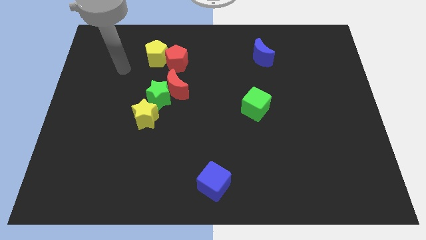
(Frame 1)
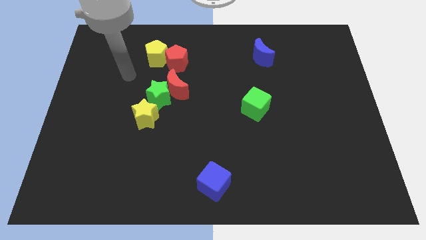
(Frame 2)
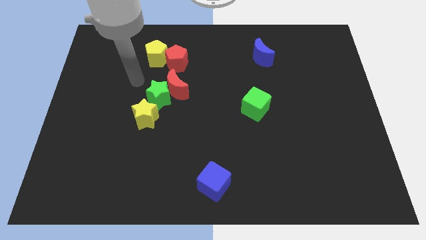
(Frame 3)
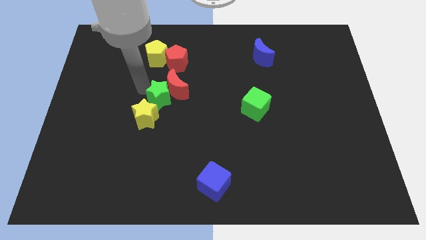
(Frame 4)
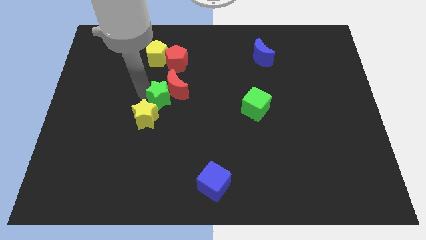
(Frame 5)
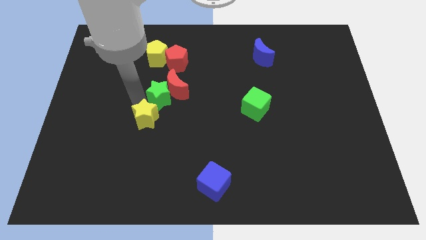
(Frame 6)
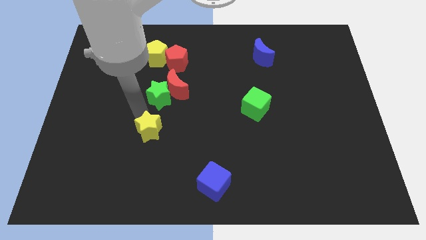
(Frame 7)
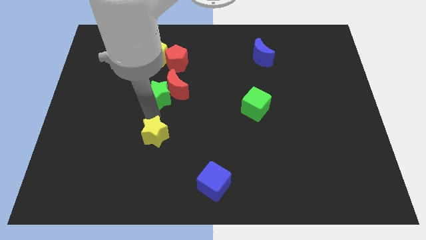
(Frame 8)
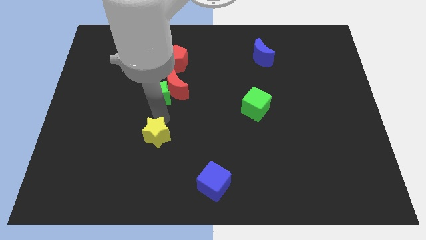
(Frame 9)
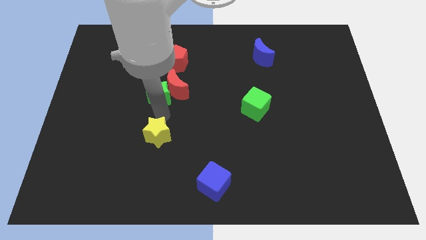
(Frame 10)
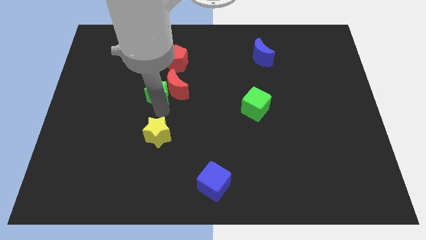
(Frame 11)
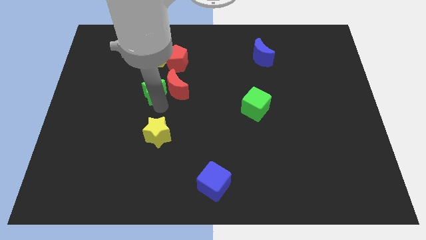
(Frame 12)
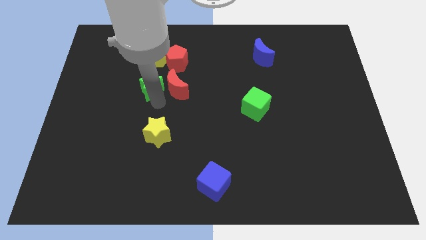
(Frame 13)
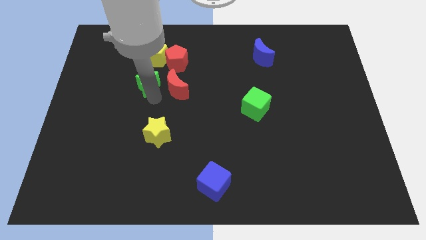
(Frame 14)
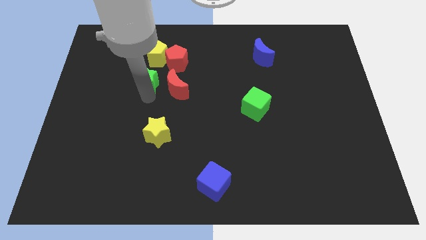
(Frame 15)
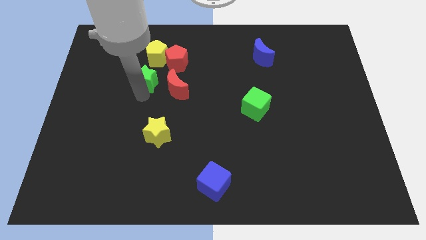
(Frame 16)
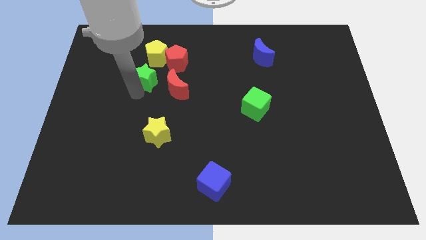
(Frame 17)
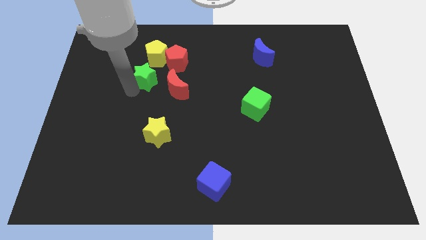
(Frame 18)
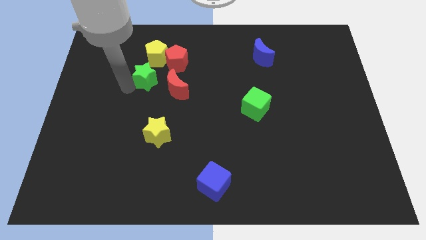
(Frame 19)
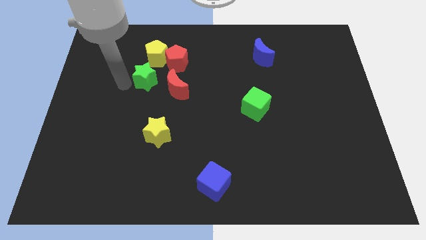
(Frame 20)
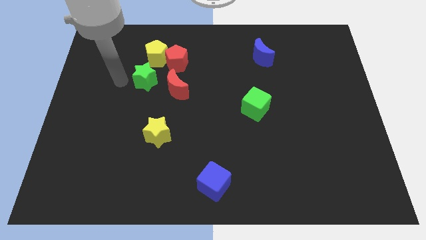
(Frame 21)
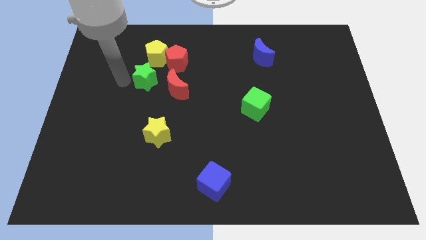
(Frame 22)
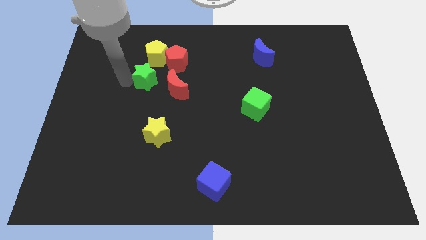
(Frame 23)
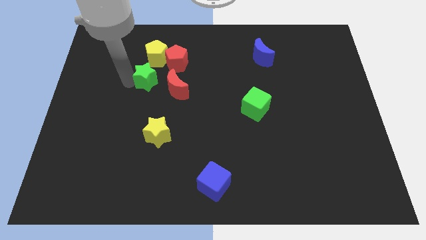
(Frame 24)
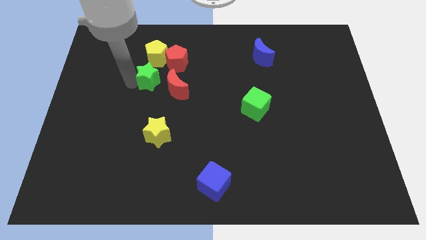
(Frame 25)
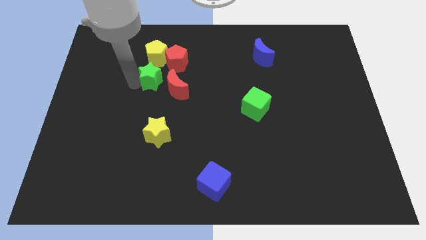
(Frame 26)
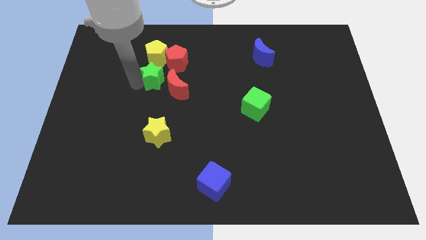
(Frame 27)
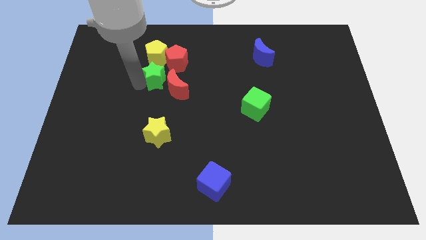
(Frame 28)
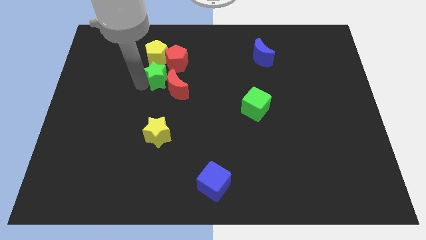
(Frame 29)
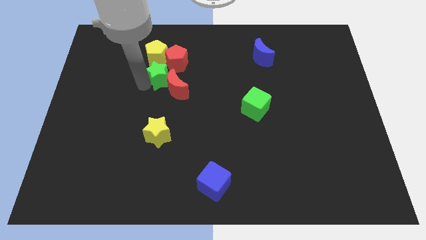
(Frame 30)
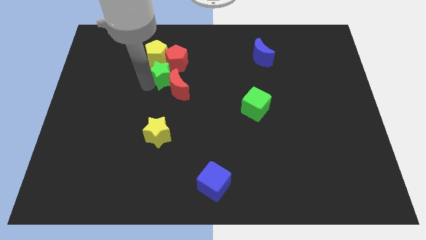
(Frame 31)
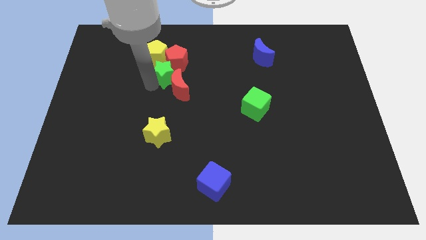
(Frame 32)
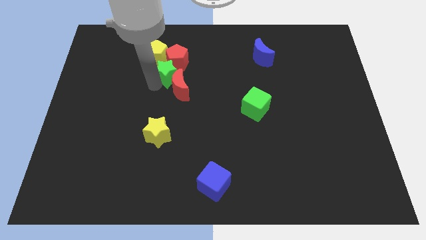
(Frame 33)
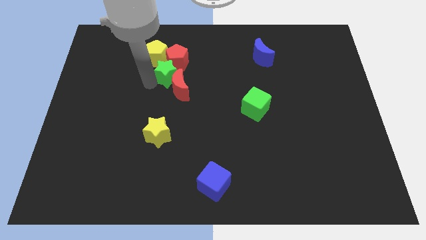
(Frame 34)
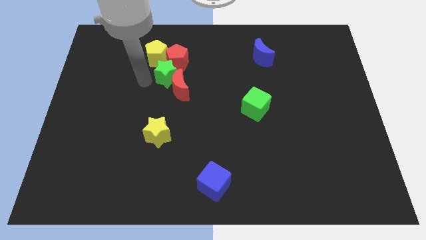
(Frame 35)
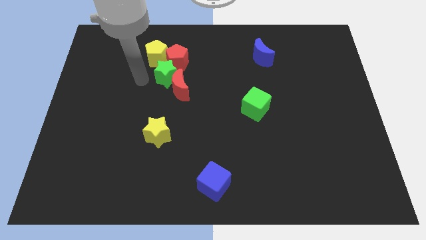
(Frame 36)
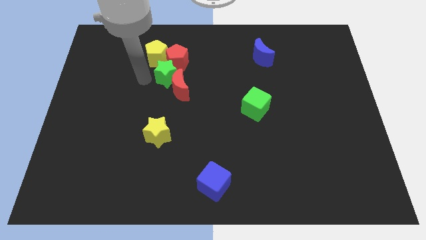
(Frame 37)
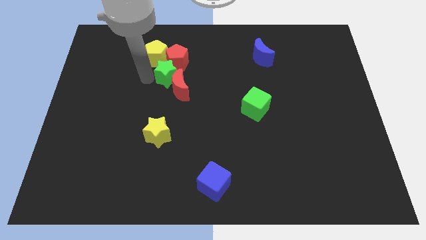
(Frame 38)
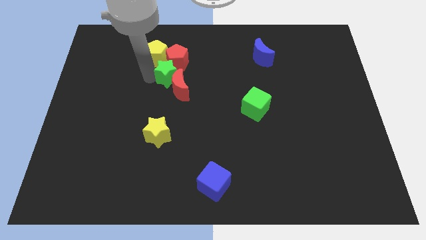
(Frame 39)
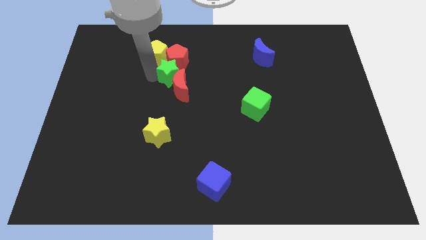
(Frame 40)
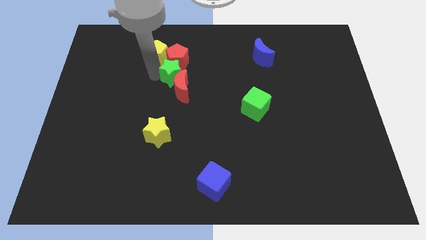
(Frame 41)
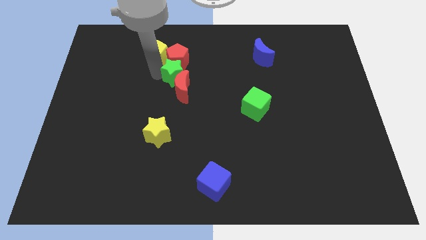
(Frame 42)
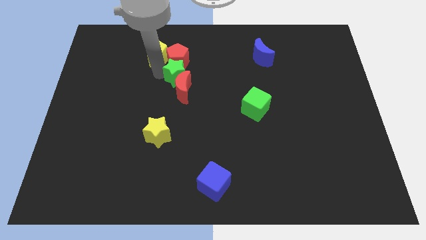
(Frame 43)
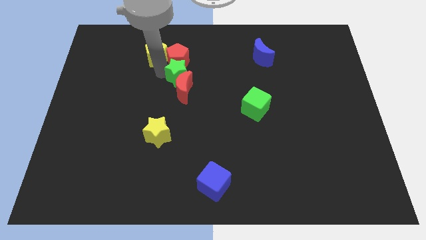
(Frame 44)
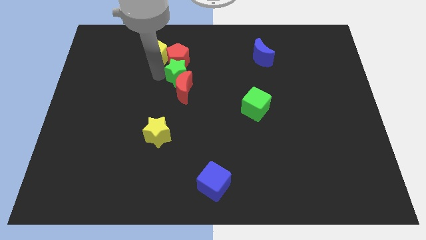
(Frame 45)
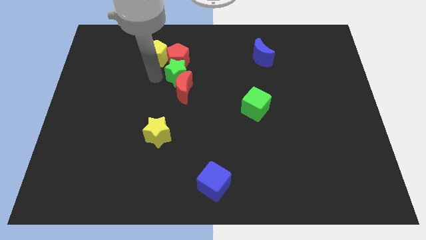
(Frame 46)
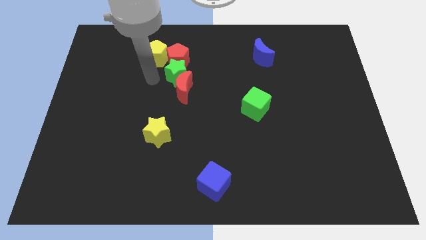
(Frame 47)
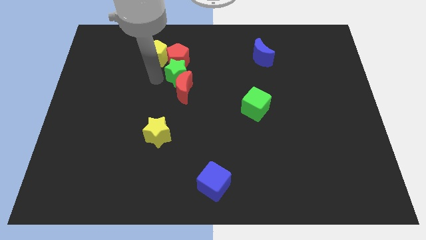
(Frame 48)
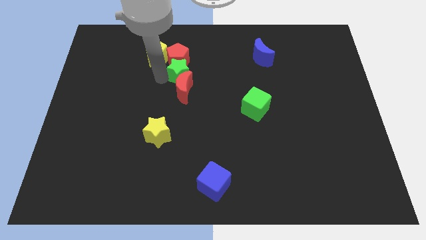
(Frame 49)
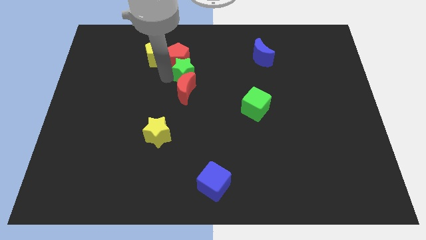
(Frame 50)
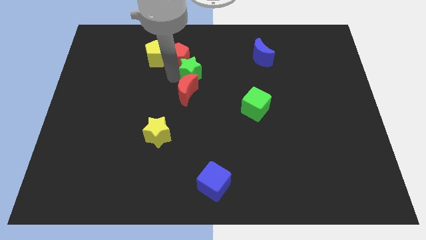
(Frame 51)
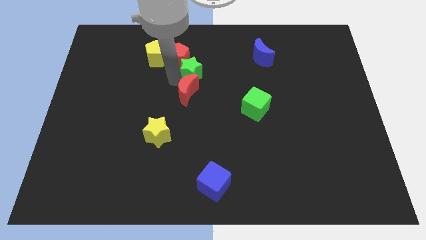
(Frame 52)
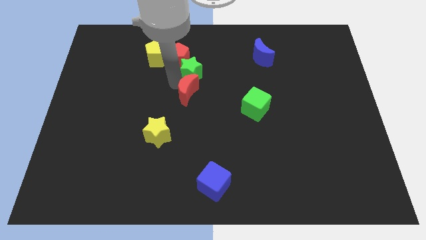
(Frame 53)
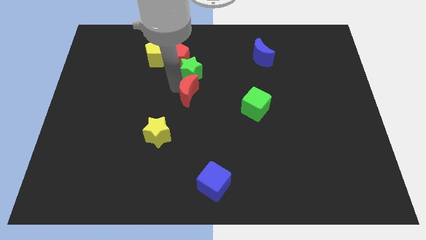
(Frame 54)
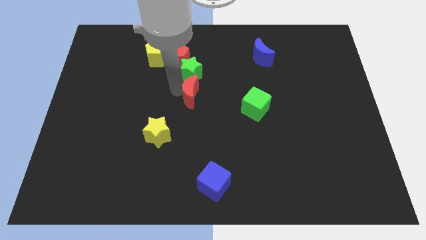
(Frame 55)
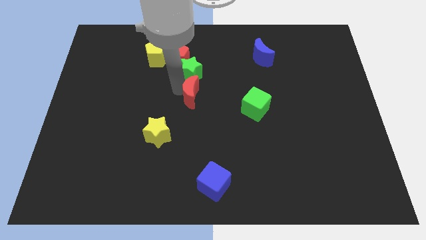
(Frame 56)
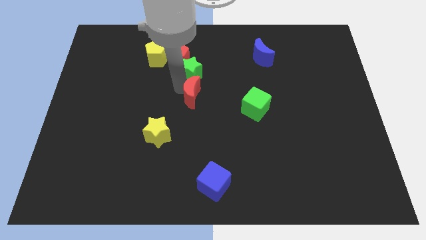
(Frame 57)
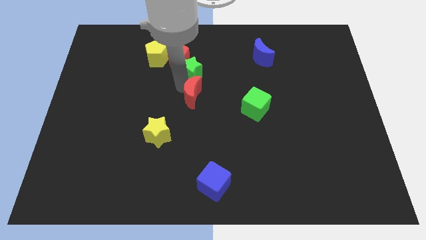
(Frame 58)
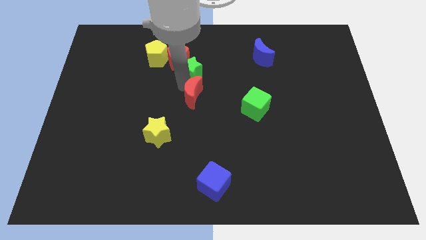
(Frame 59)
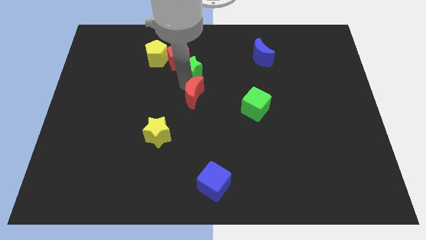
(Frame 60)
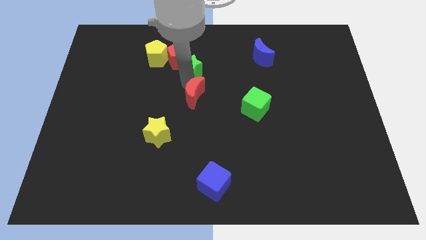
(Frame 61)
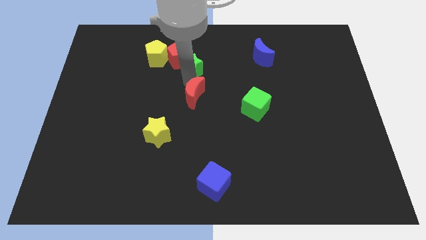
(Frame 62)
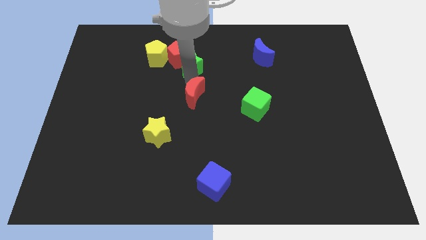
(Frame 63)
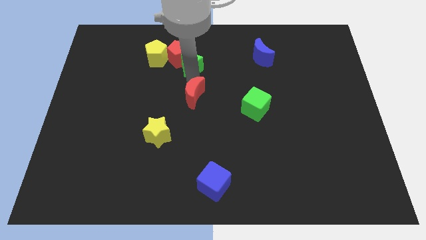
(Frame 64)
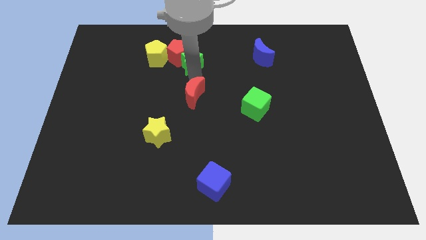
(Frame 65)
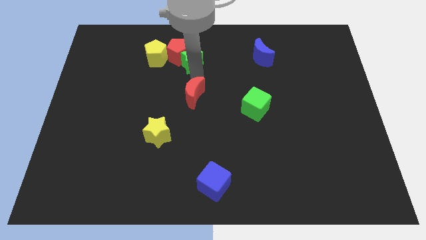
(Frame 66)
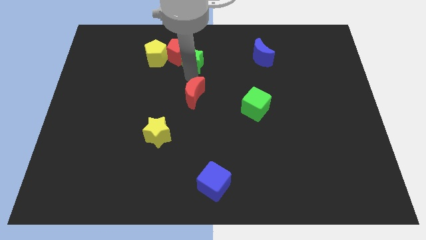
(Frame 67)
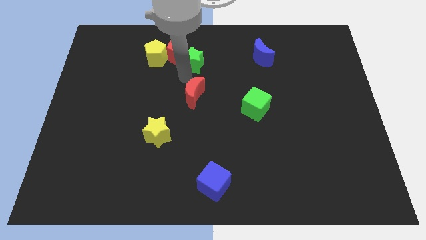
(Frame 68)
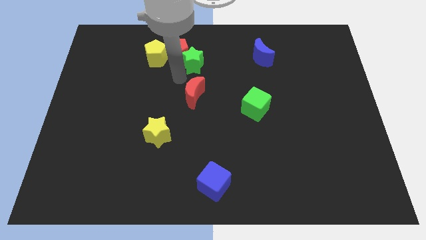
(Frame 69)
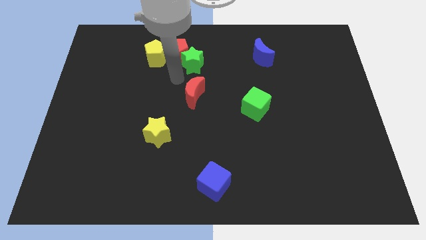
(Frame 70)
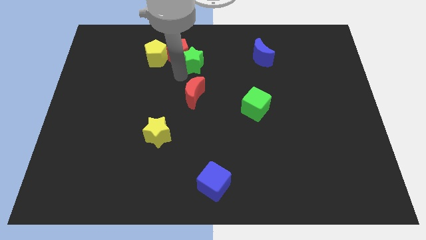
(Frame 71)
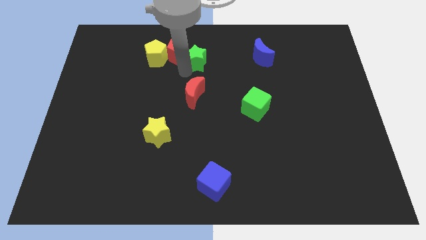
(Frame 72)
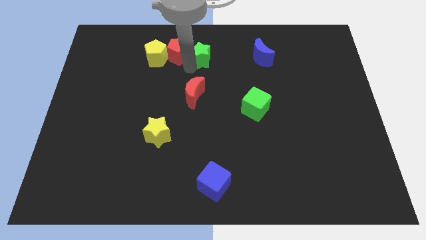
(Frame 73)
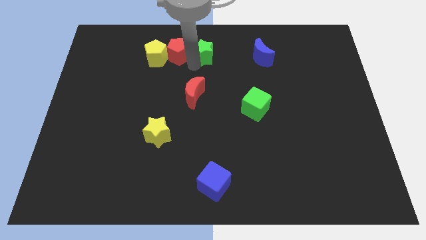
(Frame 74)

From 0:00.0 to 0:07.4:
push the green star to the towards your base

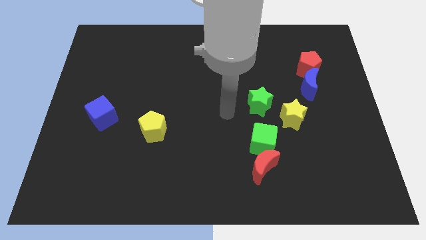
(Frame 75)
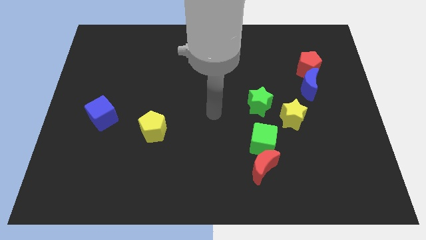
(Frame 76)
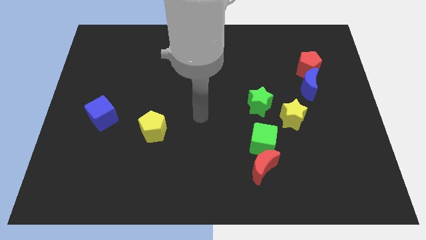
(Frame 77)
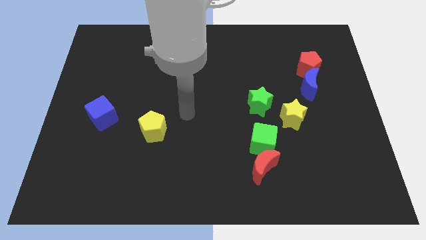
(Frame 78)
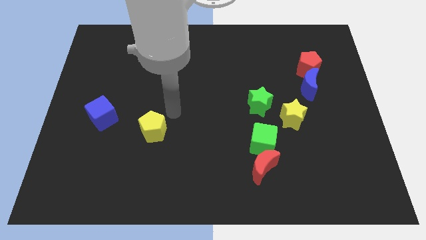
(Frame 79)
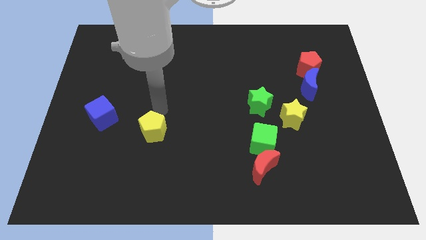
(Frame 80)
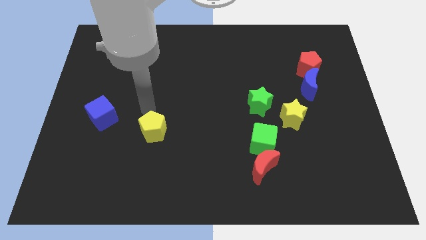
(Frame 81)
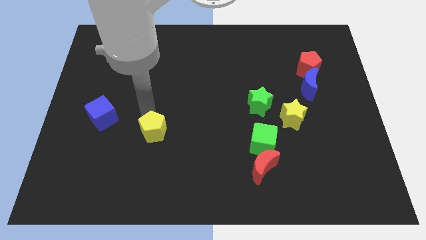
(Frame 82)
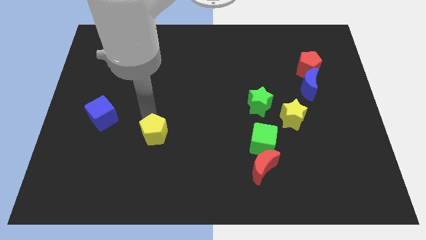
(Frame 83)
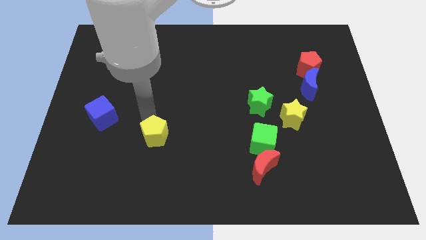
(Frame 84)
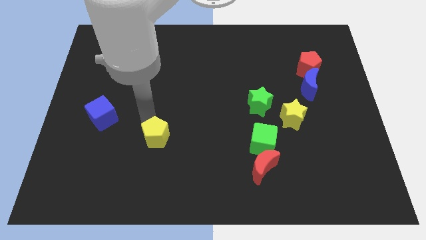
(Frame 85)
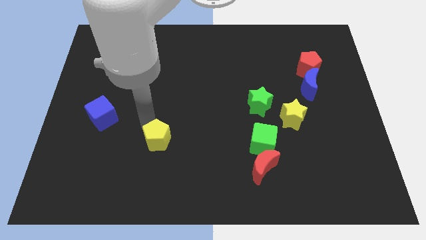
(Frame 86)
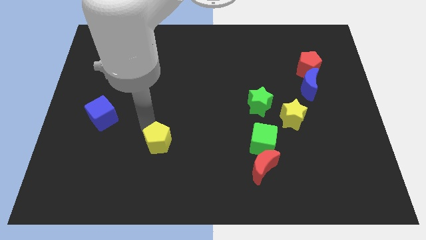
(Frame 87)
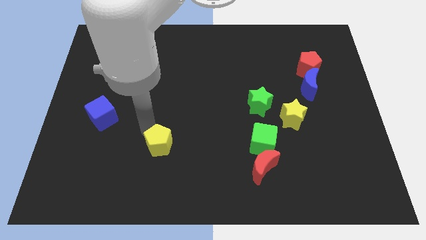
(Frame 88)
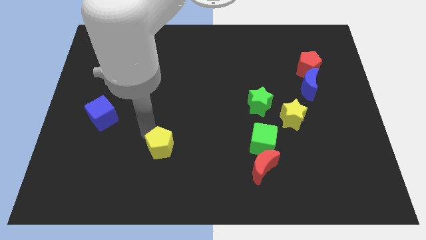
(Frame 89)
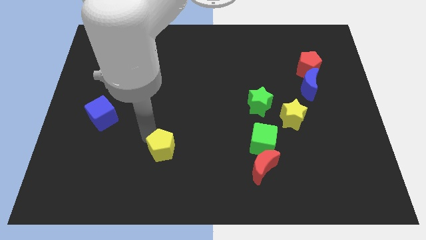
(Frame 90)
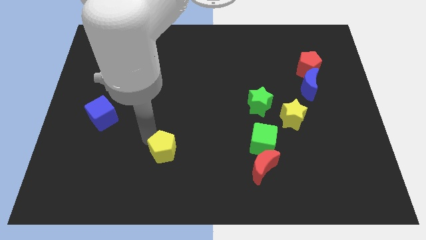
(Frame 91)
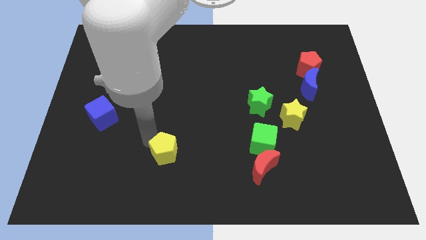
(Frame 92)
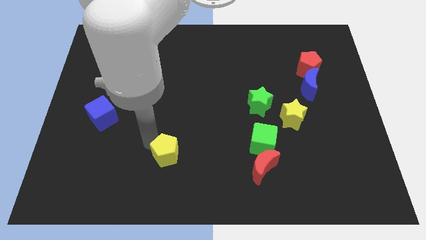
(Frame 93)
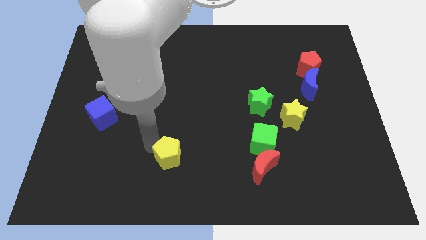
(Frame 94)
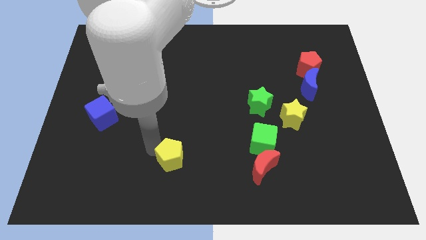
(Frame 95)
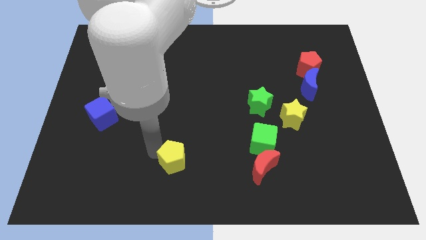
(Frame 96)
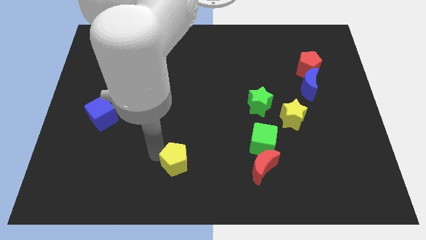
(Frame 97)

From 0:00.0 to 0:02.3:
move the yellow pentagon to the bottom side
